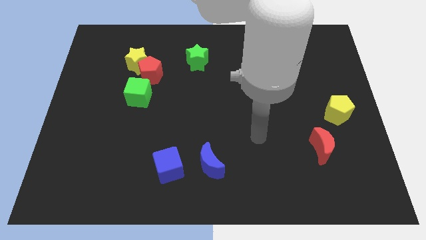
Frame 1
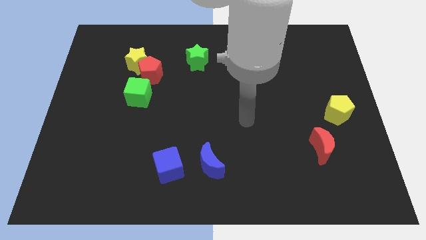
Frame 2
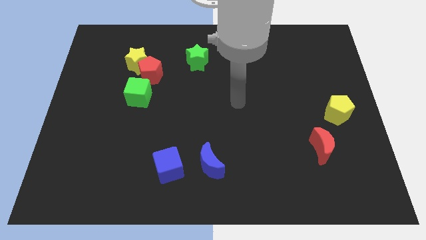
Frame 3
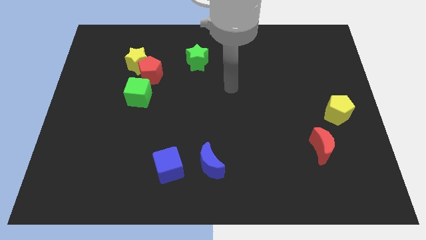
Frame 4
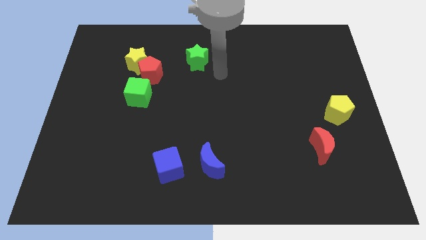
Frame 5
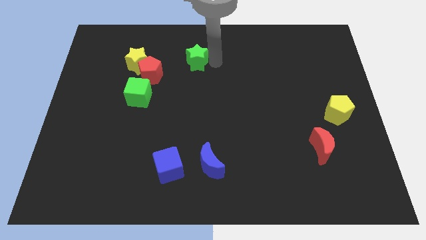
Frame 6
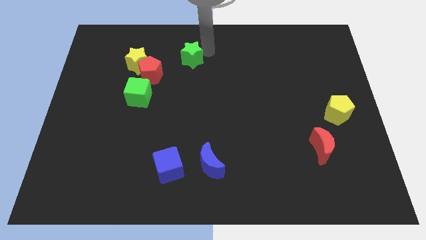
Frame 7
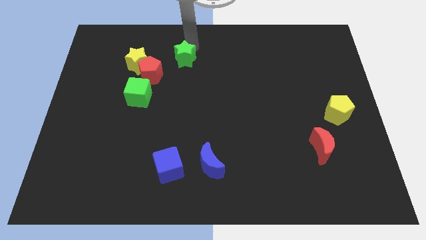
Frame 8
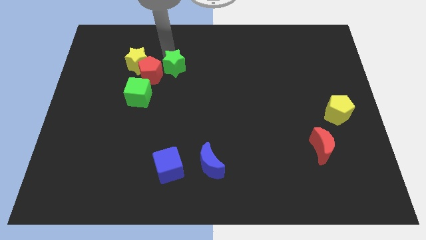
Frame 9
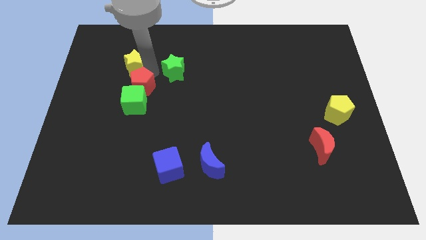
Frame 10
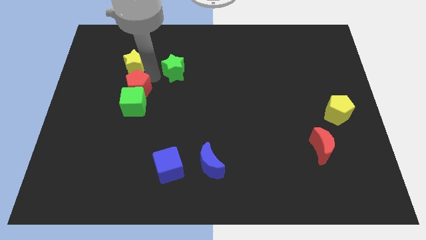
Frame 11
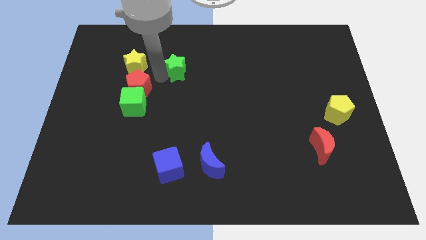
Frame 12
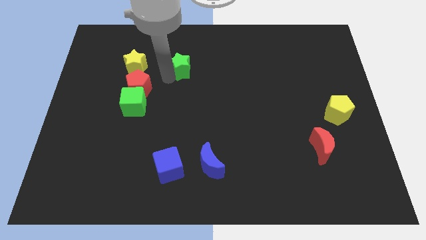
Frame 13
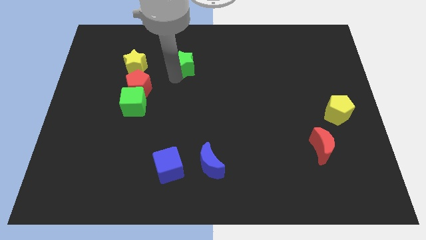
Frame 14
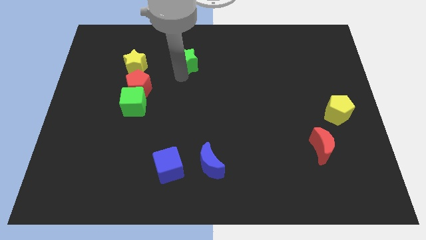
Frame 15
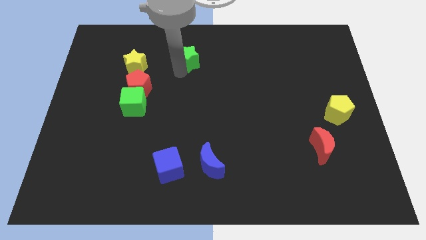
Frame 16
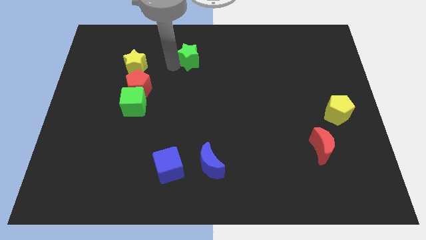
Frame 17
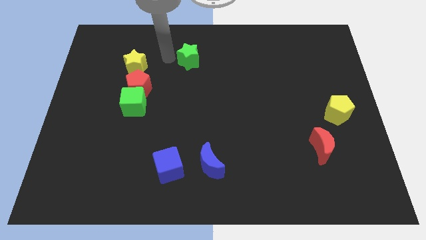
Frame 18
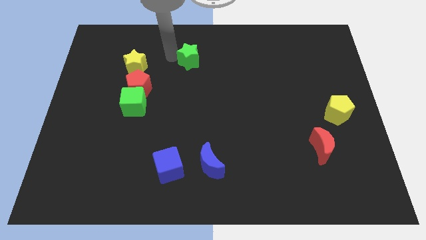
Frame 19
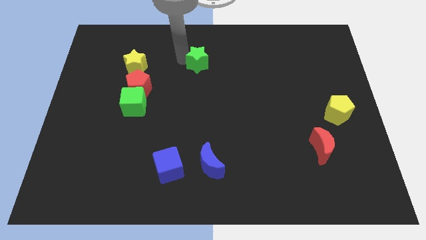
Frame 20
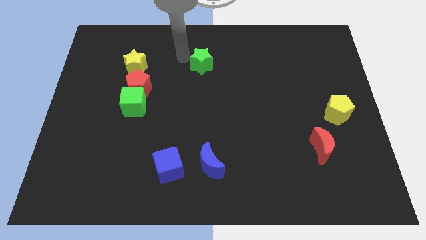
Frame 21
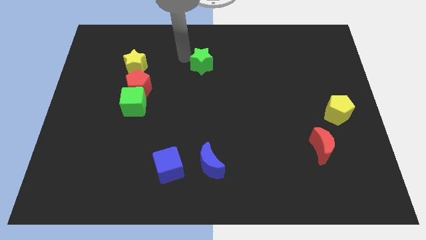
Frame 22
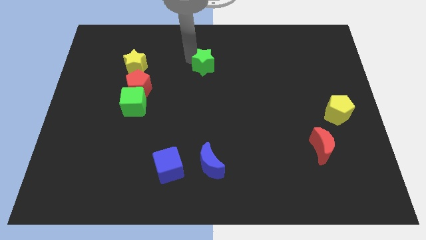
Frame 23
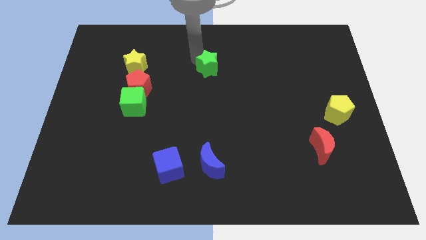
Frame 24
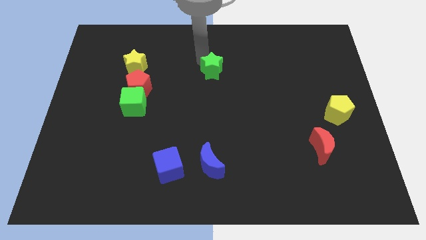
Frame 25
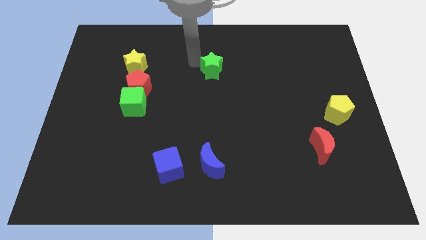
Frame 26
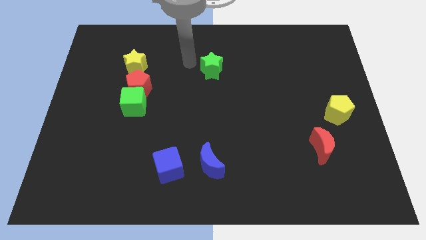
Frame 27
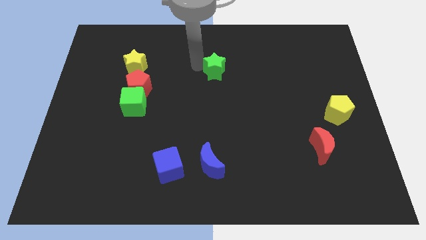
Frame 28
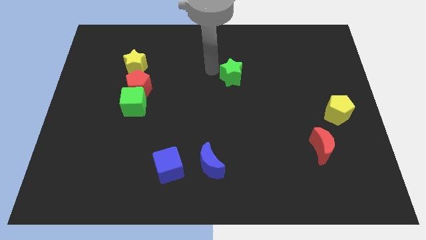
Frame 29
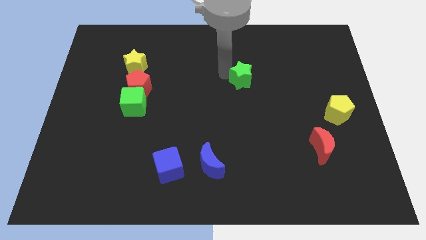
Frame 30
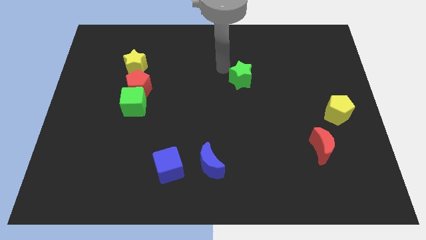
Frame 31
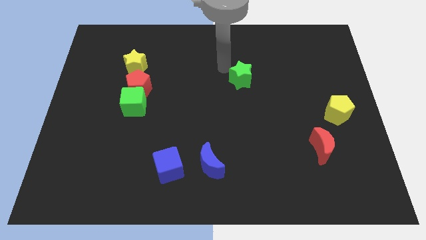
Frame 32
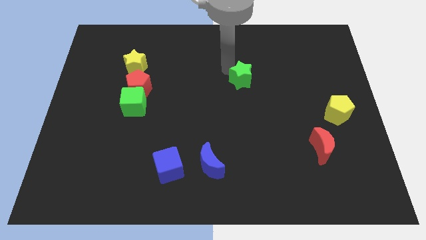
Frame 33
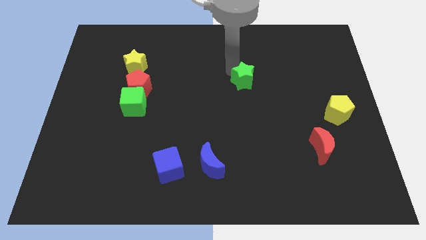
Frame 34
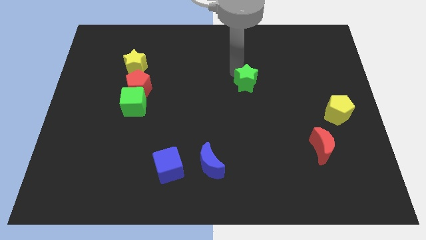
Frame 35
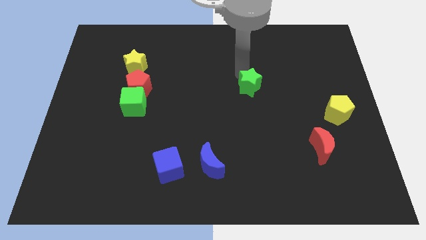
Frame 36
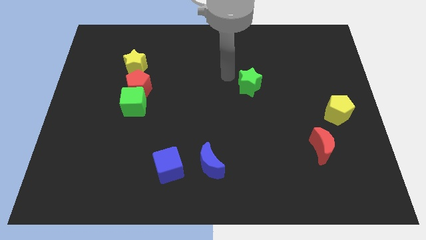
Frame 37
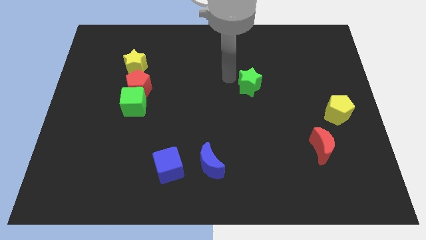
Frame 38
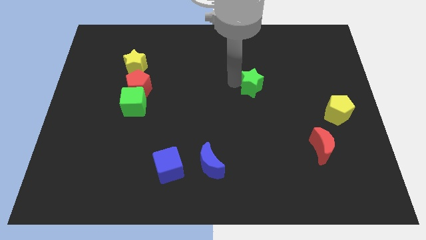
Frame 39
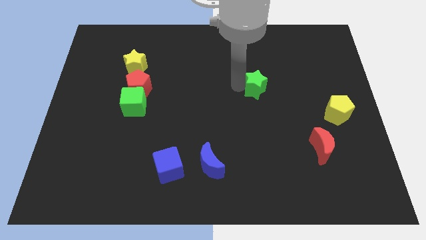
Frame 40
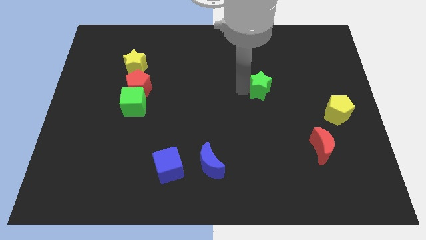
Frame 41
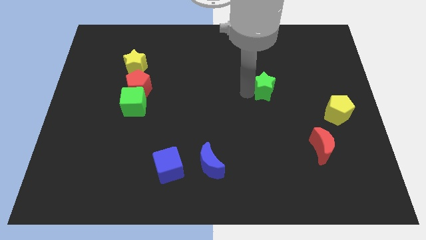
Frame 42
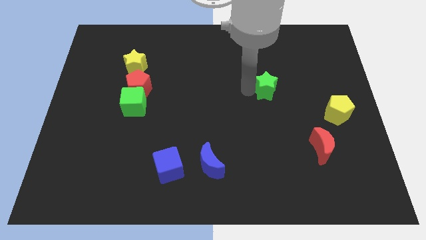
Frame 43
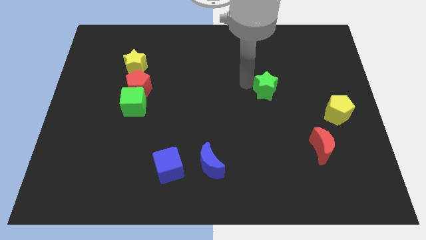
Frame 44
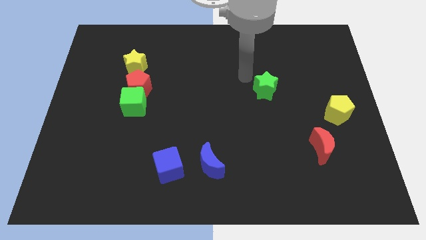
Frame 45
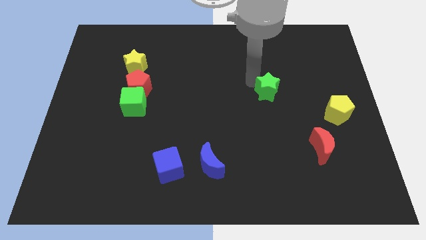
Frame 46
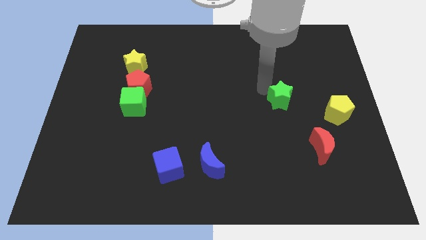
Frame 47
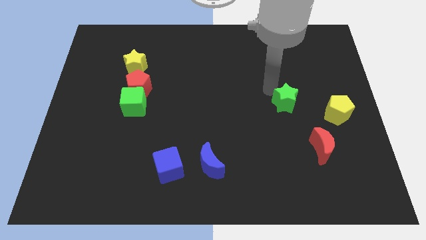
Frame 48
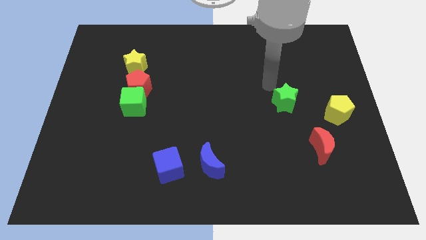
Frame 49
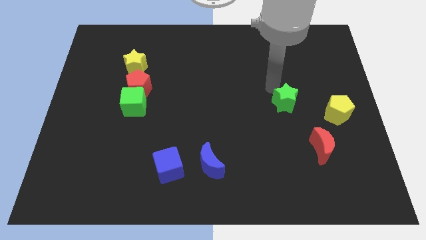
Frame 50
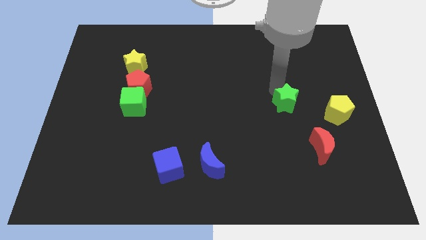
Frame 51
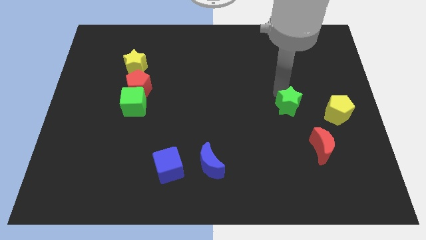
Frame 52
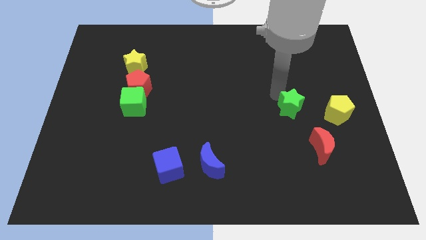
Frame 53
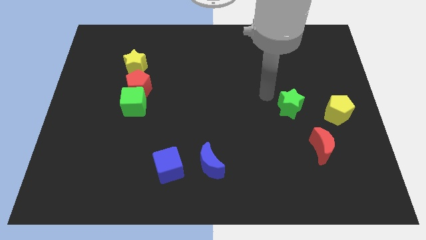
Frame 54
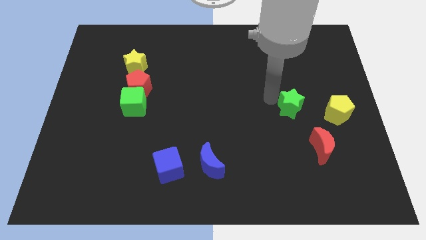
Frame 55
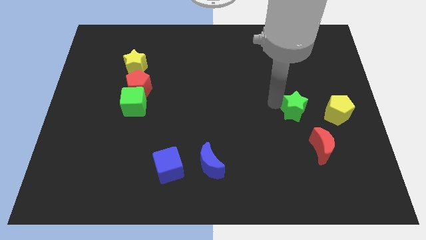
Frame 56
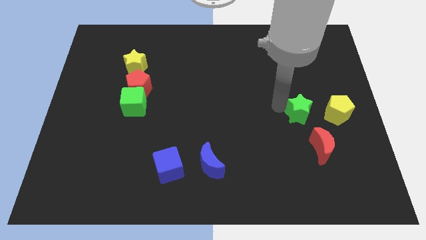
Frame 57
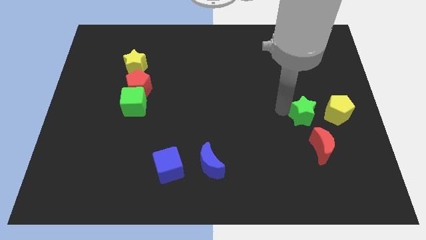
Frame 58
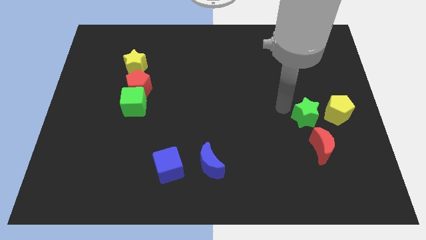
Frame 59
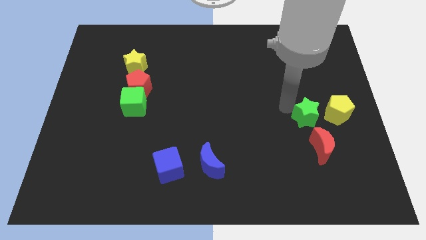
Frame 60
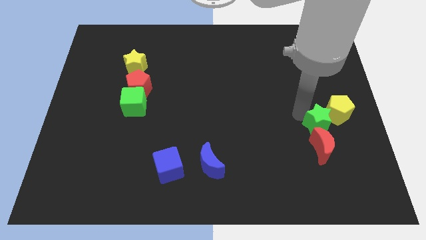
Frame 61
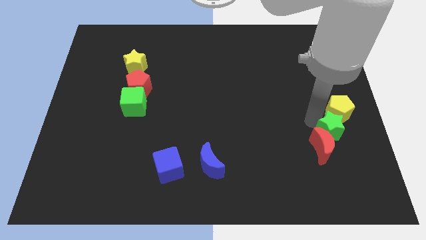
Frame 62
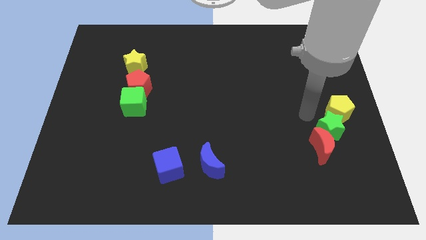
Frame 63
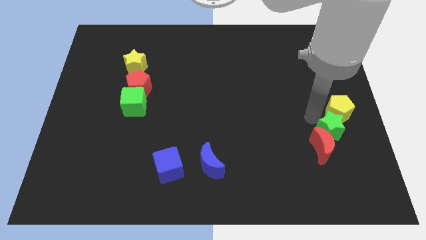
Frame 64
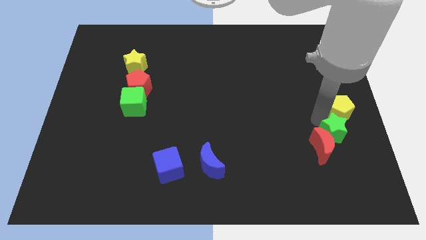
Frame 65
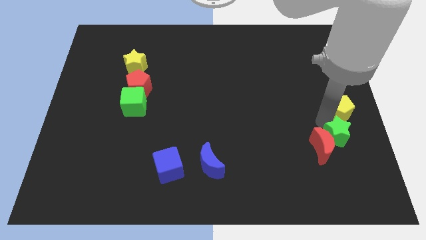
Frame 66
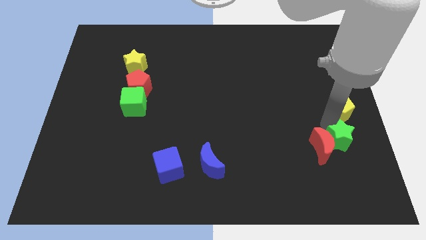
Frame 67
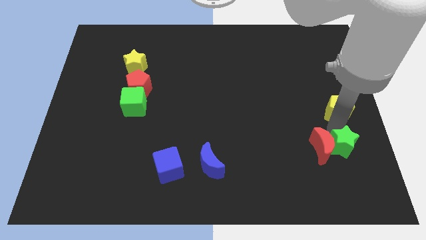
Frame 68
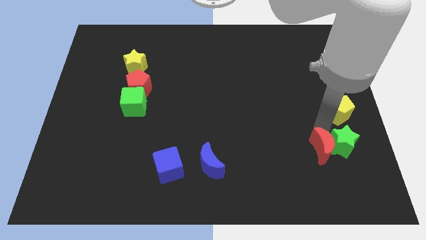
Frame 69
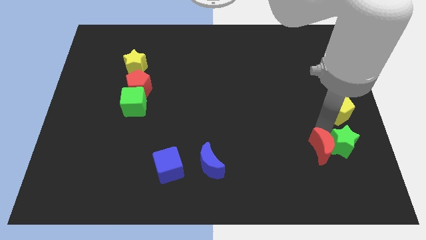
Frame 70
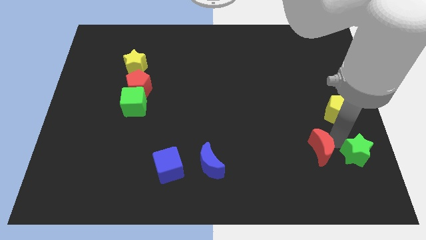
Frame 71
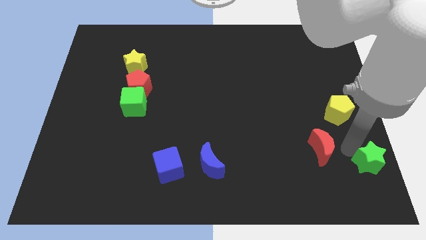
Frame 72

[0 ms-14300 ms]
move the green star to the lower right corner

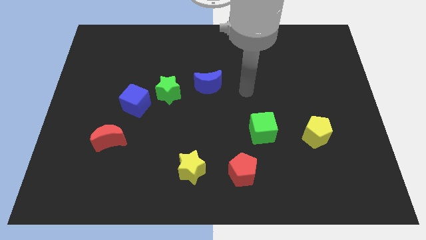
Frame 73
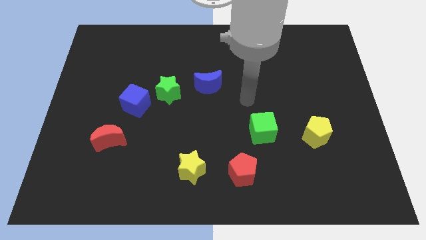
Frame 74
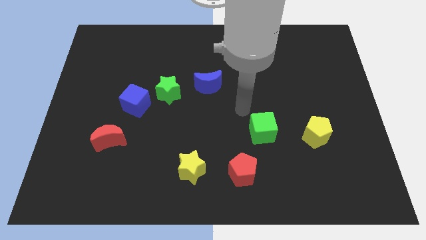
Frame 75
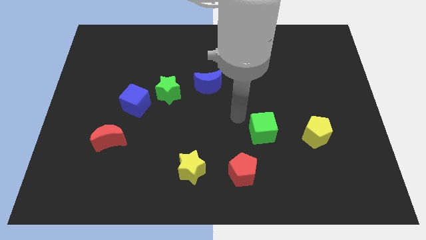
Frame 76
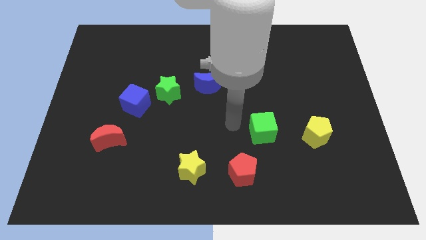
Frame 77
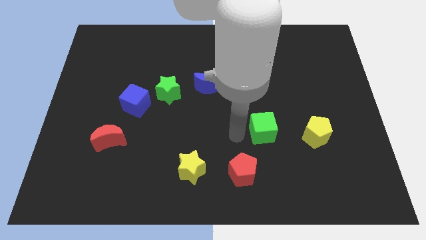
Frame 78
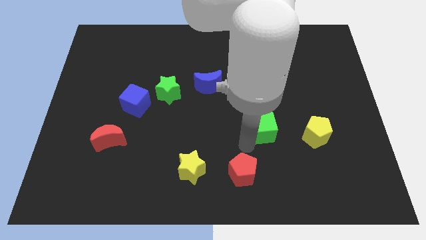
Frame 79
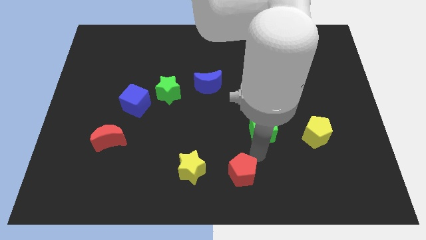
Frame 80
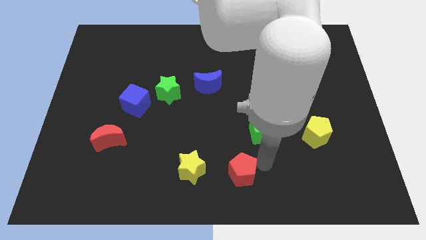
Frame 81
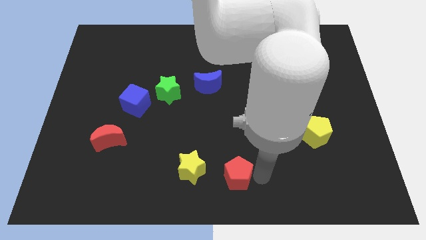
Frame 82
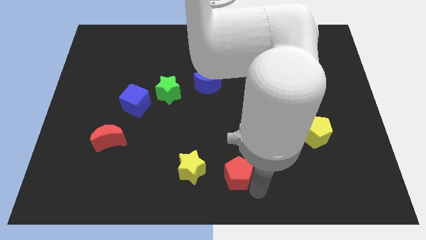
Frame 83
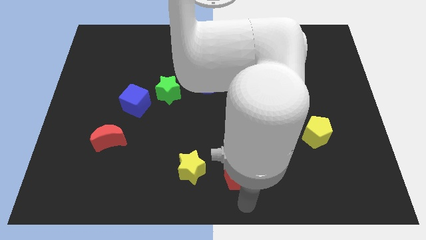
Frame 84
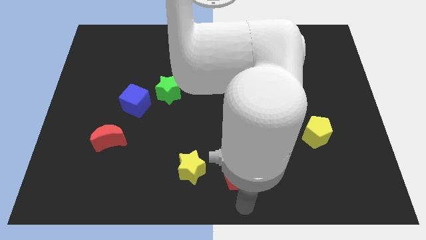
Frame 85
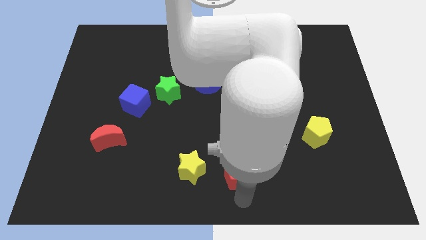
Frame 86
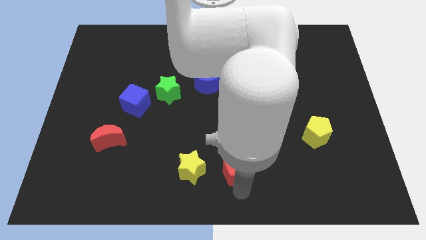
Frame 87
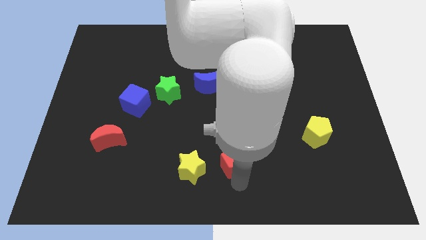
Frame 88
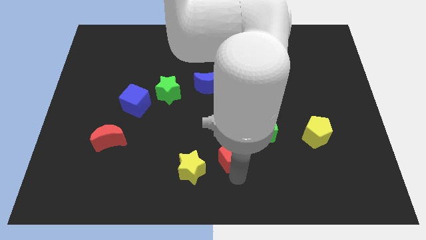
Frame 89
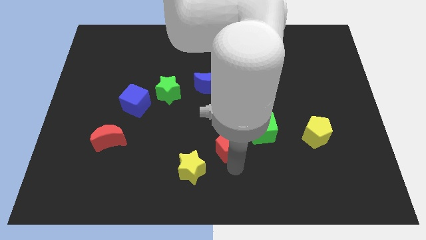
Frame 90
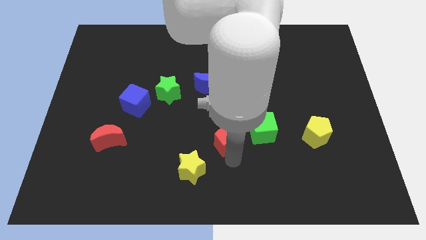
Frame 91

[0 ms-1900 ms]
move the red pentagon to the center of the board
